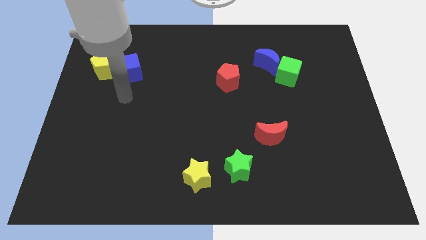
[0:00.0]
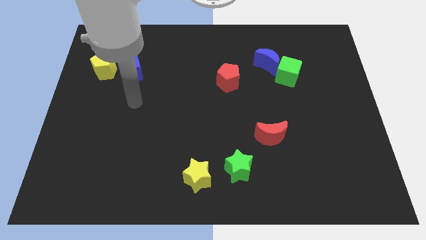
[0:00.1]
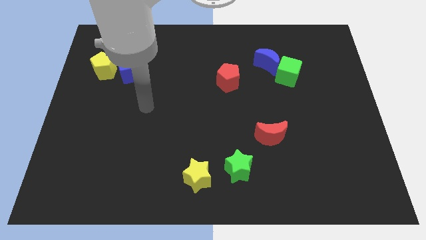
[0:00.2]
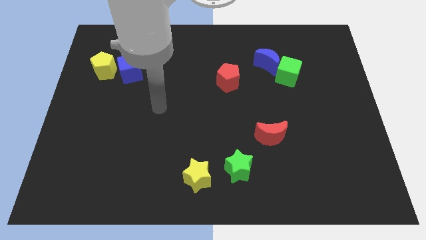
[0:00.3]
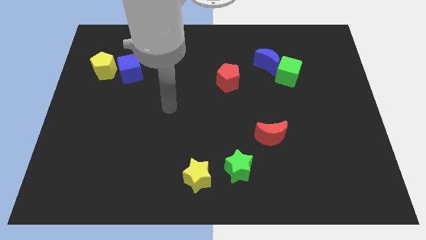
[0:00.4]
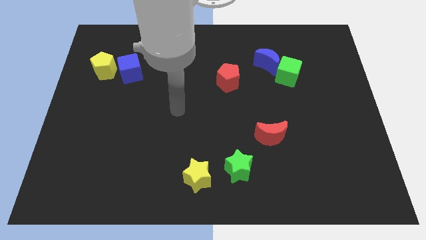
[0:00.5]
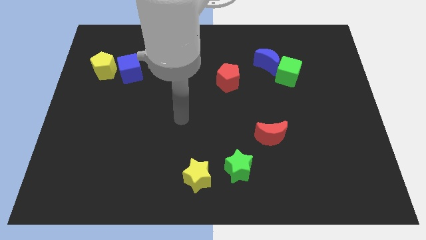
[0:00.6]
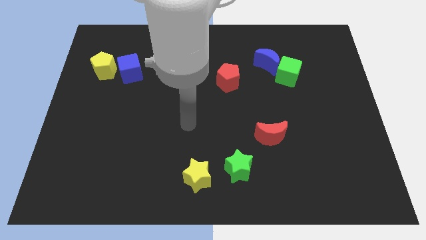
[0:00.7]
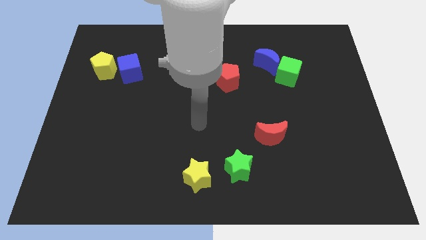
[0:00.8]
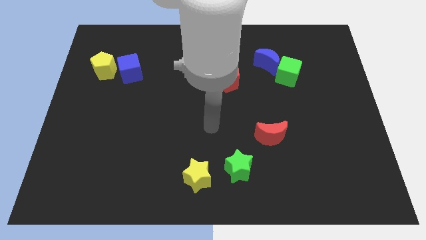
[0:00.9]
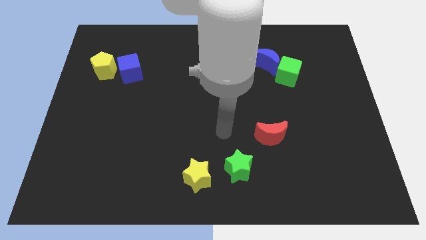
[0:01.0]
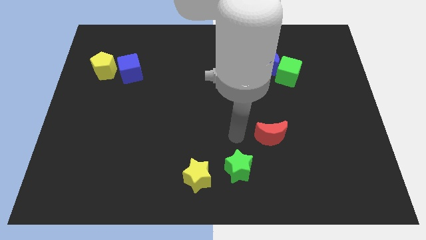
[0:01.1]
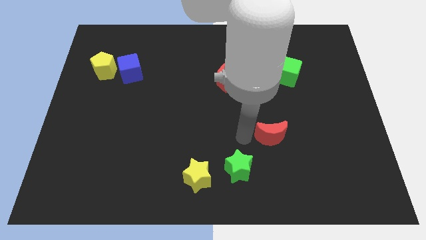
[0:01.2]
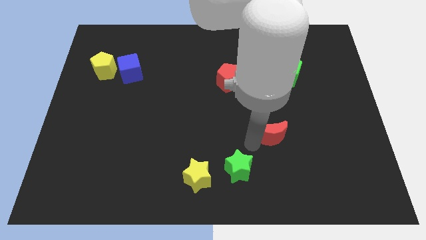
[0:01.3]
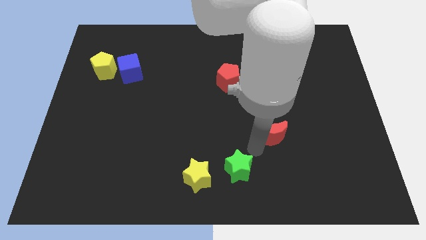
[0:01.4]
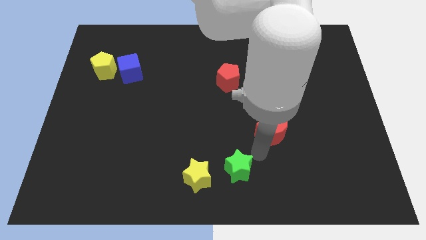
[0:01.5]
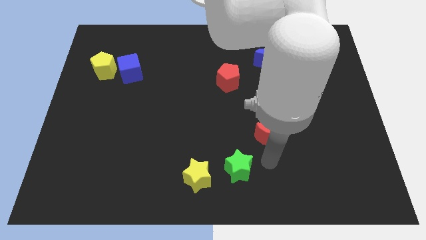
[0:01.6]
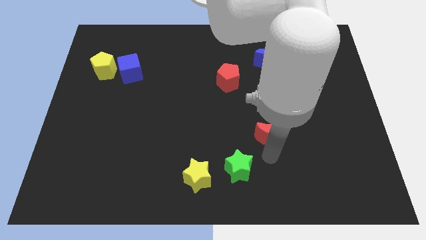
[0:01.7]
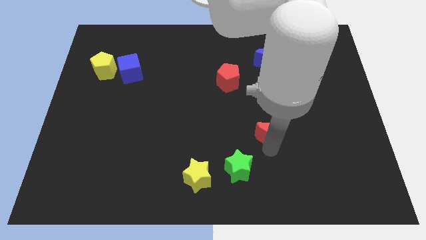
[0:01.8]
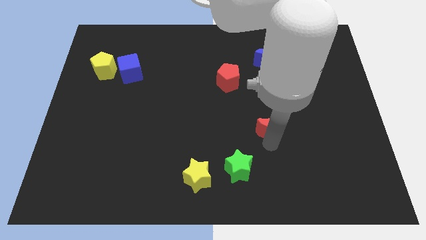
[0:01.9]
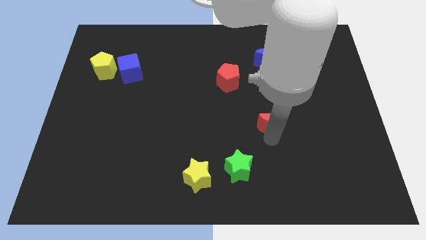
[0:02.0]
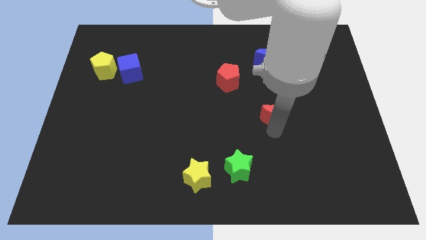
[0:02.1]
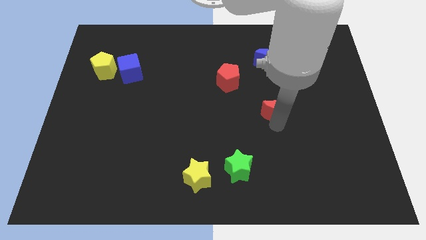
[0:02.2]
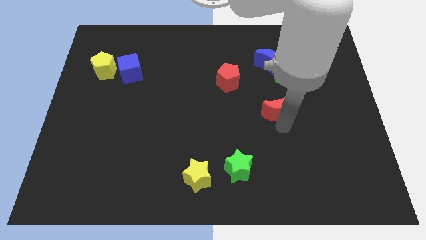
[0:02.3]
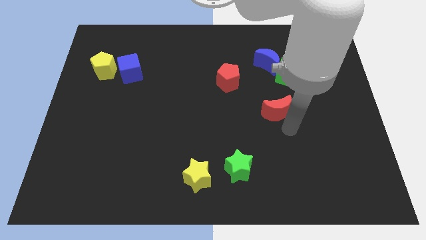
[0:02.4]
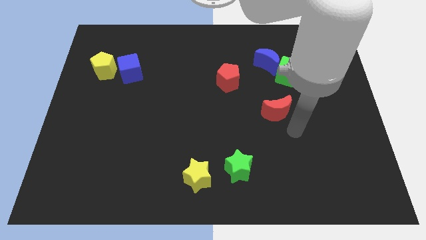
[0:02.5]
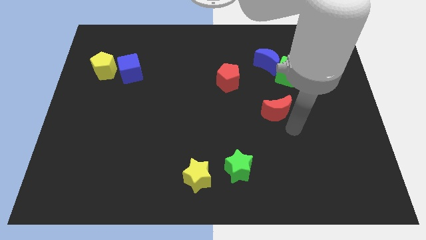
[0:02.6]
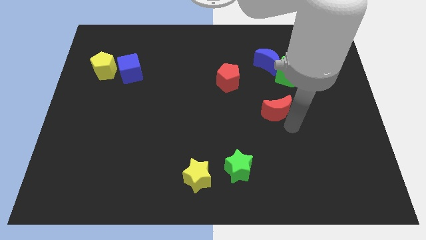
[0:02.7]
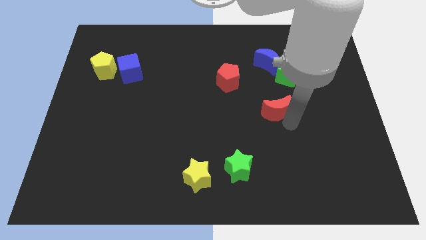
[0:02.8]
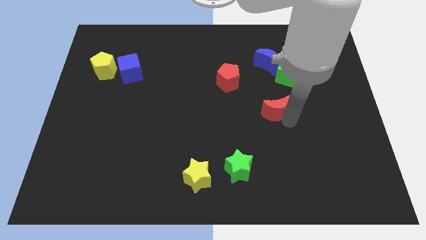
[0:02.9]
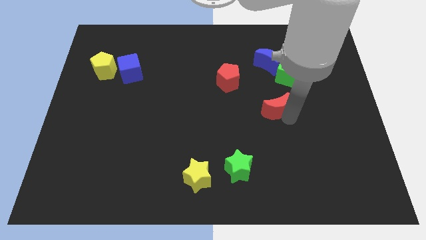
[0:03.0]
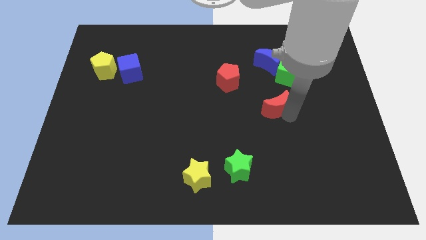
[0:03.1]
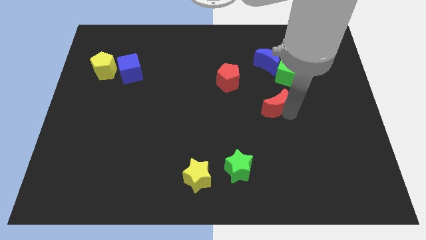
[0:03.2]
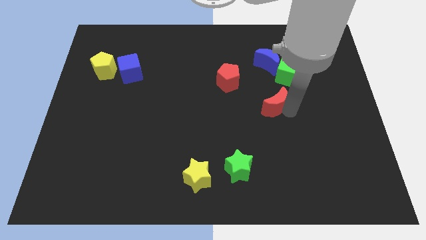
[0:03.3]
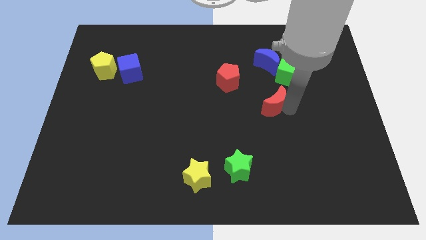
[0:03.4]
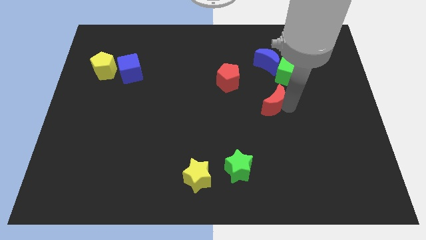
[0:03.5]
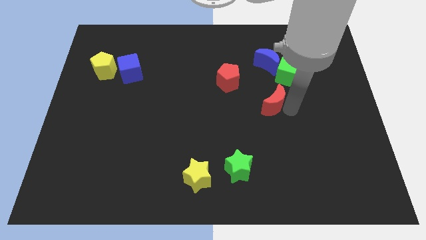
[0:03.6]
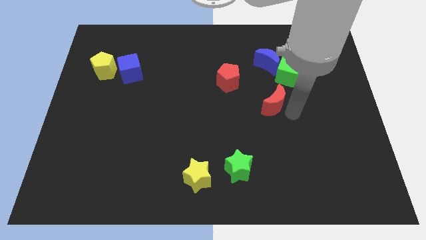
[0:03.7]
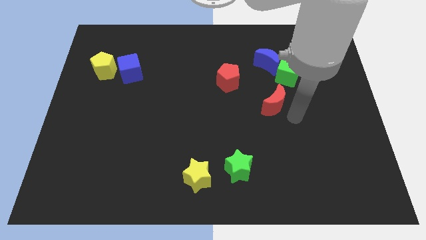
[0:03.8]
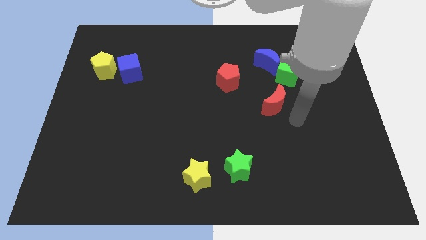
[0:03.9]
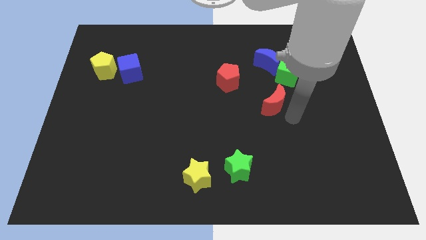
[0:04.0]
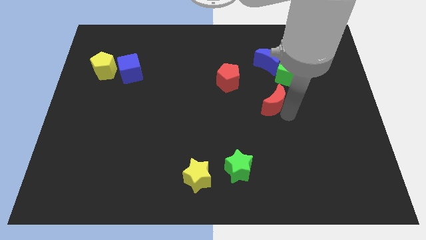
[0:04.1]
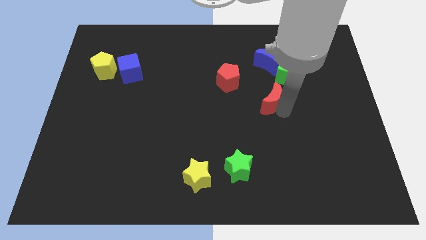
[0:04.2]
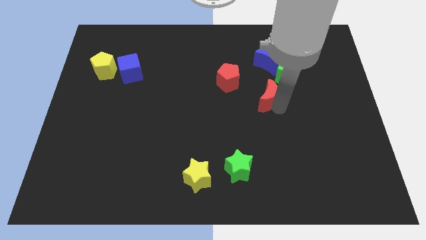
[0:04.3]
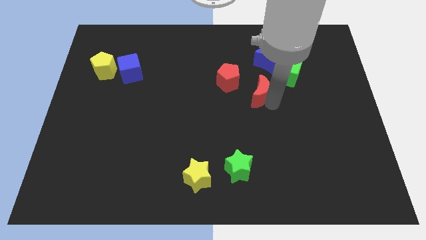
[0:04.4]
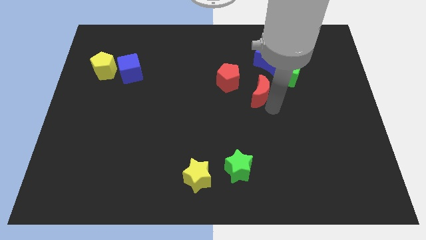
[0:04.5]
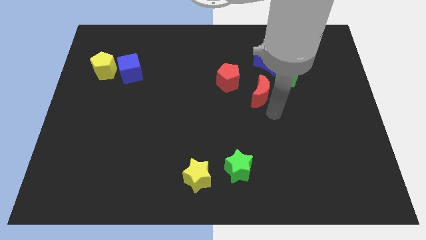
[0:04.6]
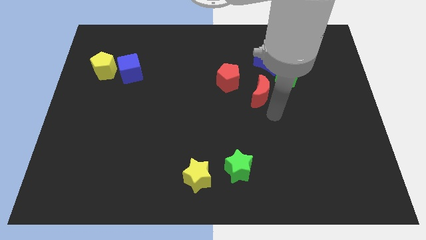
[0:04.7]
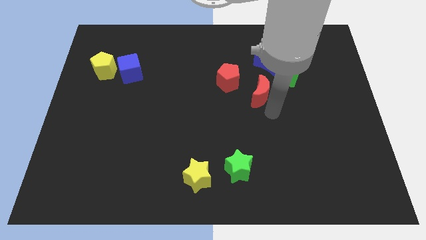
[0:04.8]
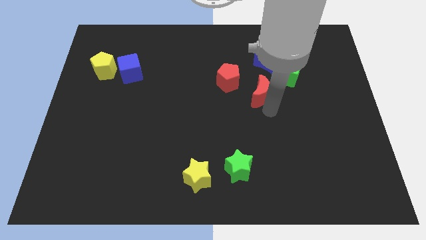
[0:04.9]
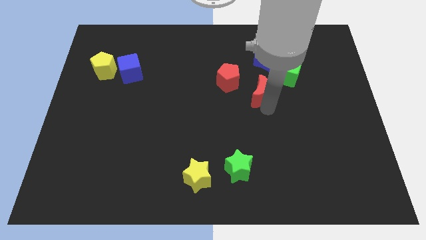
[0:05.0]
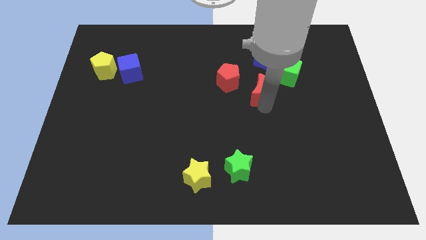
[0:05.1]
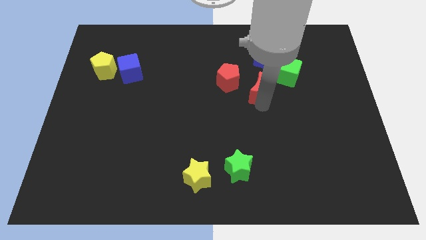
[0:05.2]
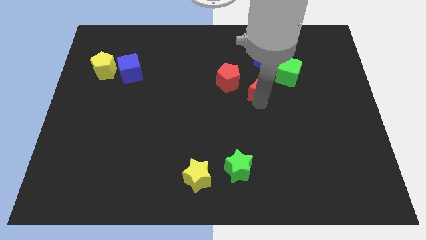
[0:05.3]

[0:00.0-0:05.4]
push the red moon to the left side of the green cube
